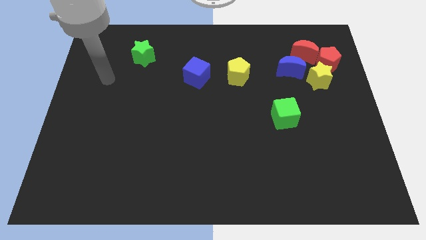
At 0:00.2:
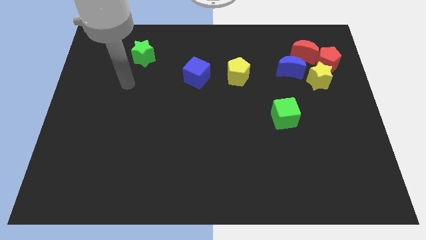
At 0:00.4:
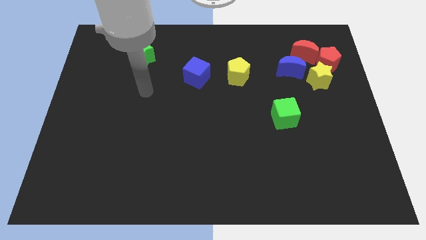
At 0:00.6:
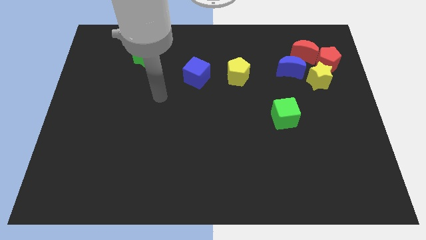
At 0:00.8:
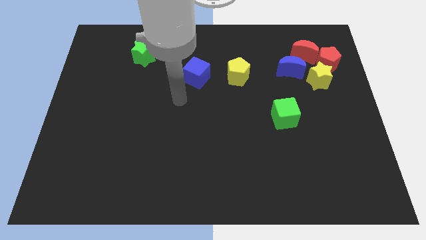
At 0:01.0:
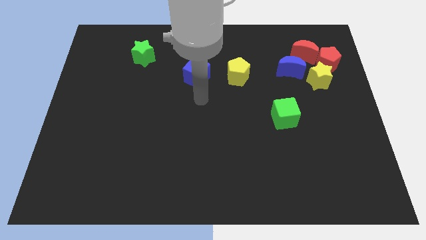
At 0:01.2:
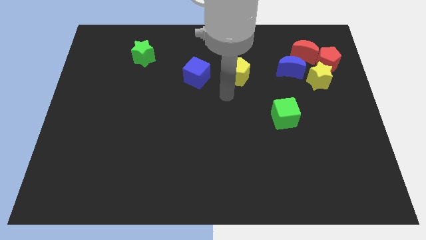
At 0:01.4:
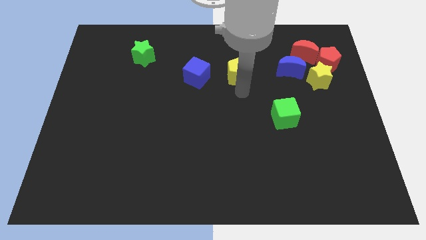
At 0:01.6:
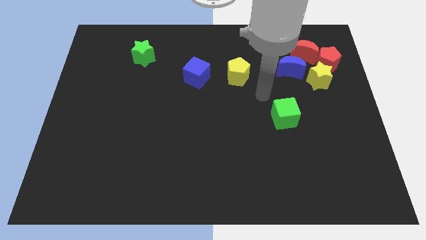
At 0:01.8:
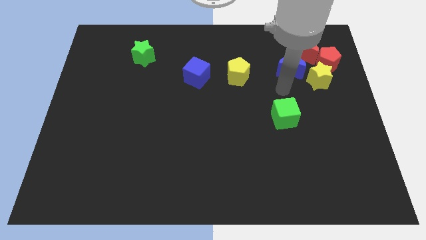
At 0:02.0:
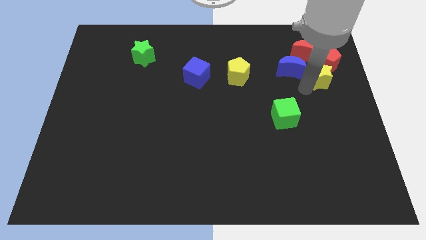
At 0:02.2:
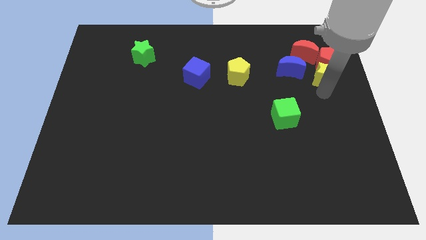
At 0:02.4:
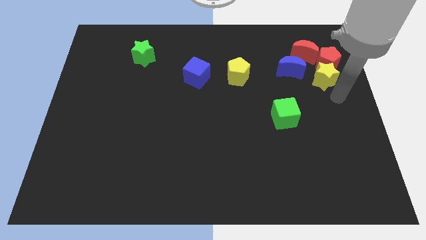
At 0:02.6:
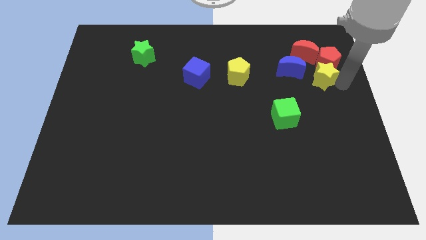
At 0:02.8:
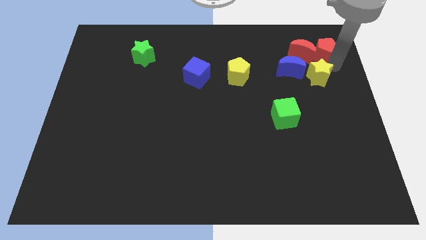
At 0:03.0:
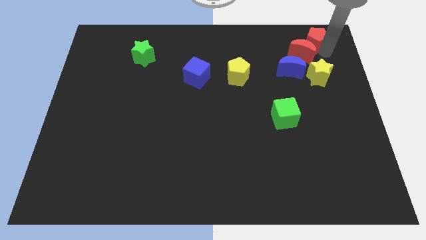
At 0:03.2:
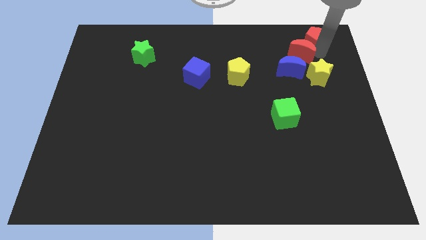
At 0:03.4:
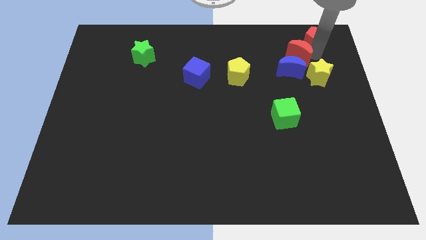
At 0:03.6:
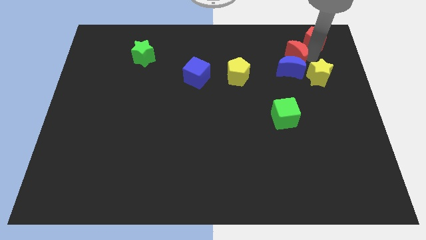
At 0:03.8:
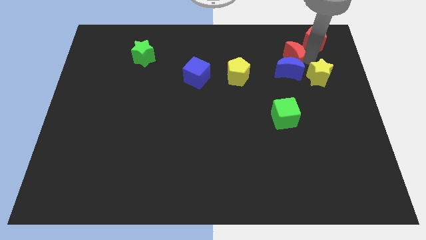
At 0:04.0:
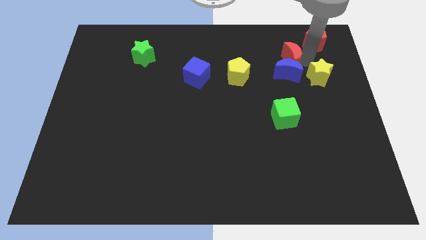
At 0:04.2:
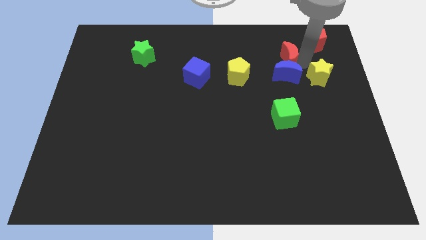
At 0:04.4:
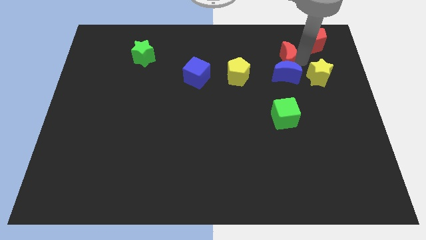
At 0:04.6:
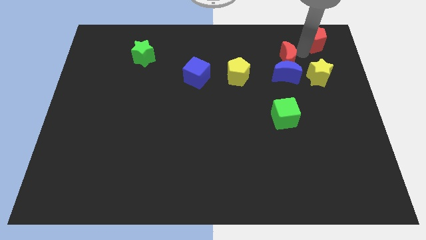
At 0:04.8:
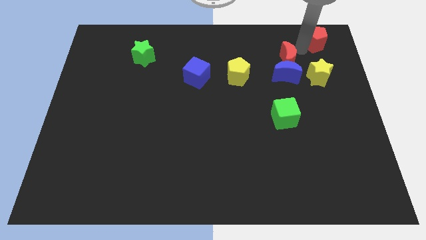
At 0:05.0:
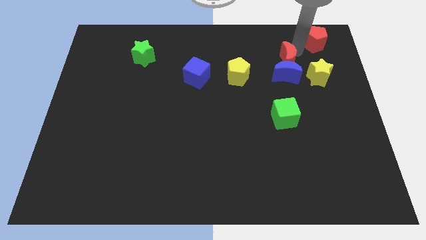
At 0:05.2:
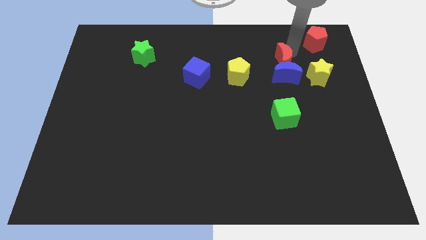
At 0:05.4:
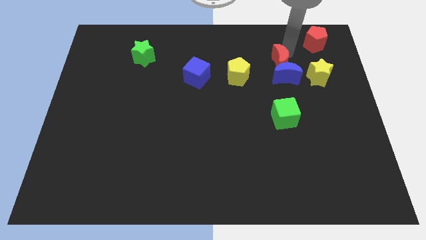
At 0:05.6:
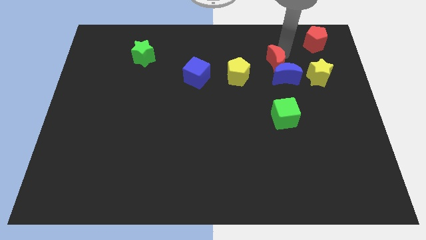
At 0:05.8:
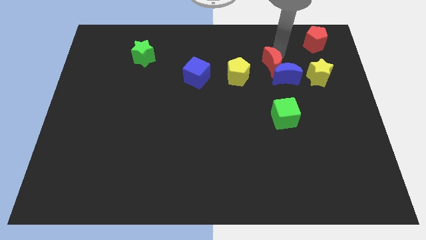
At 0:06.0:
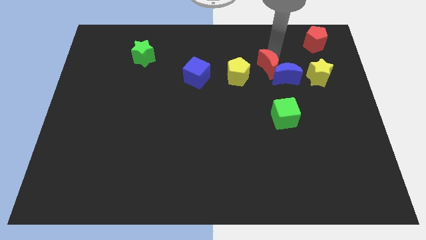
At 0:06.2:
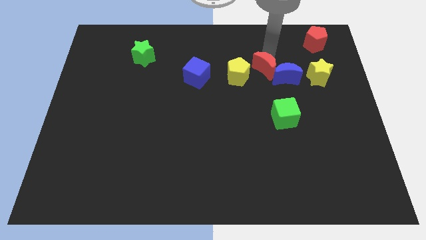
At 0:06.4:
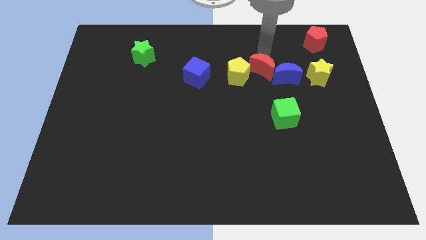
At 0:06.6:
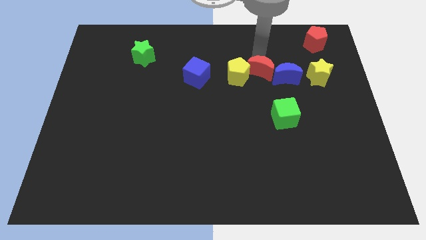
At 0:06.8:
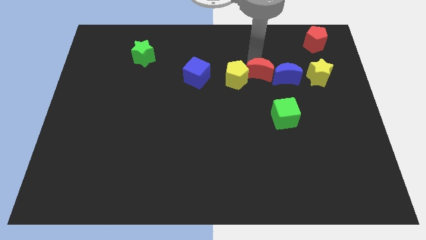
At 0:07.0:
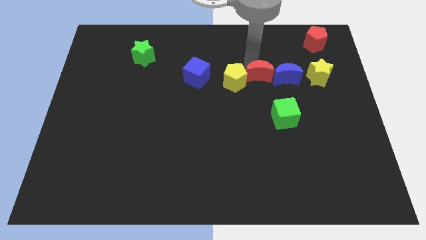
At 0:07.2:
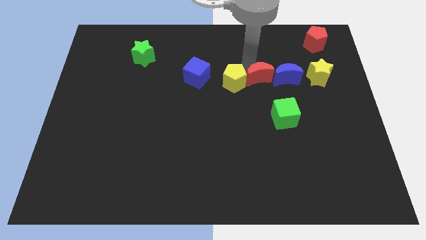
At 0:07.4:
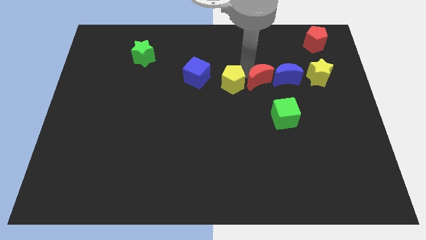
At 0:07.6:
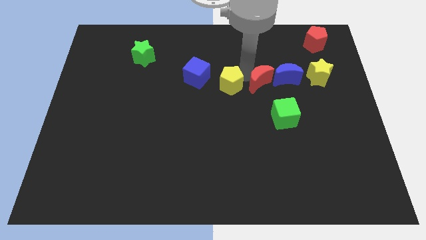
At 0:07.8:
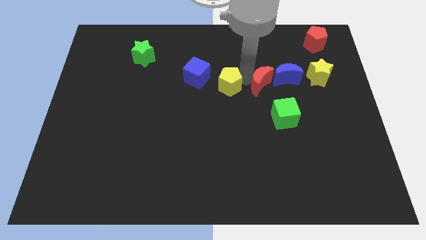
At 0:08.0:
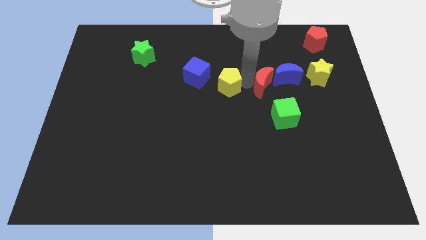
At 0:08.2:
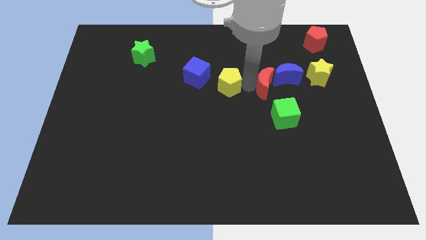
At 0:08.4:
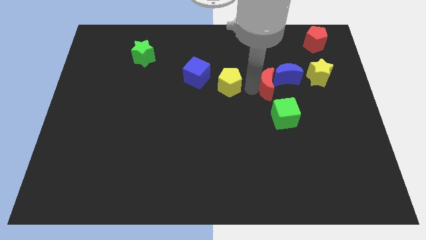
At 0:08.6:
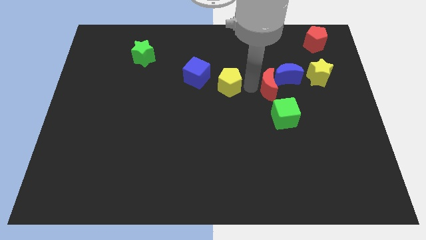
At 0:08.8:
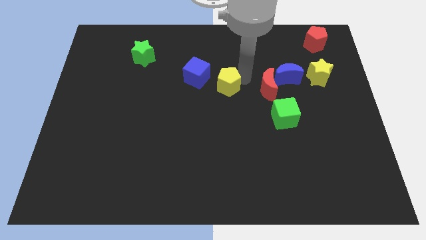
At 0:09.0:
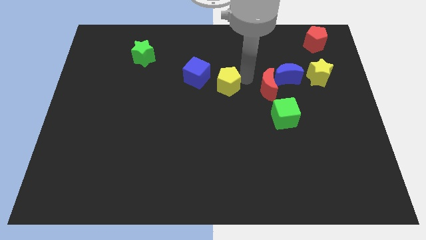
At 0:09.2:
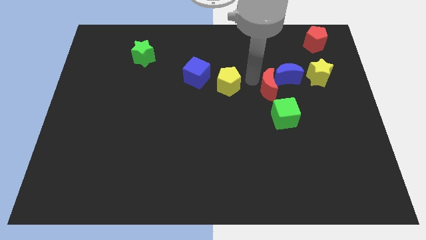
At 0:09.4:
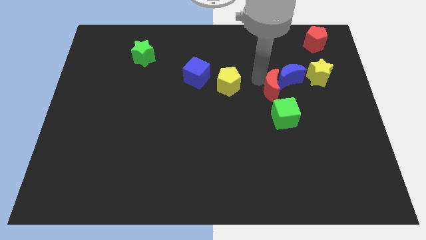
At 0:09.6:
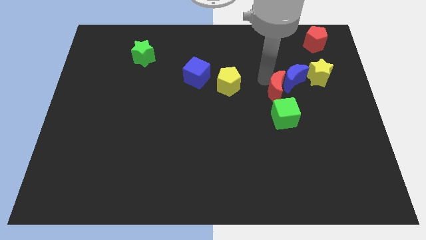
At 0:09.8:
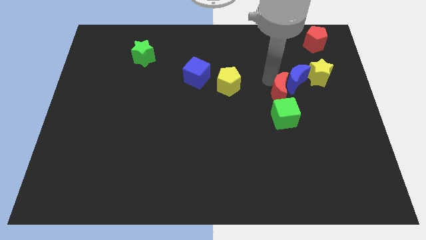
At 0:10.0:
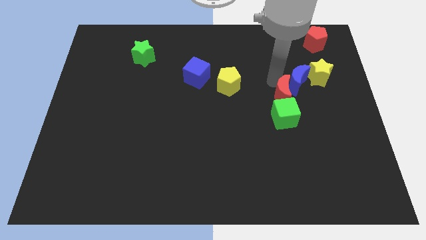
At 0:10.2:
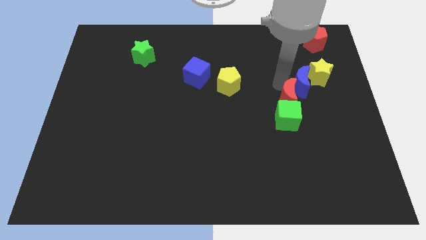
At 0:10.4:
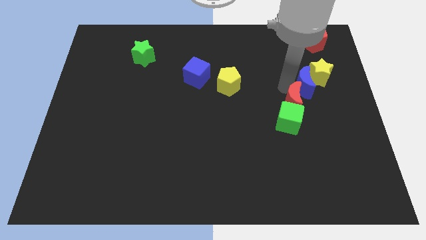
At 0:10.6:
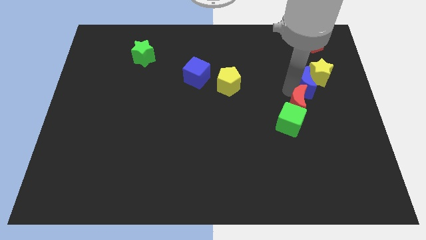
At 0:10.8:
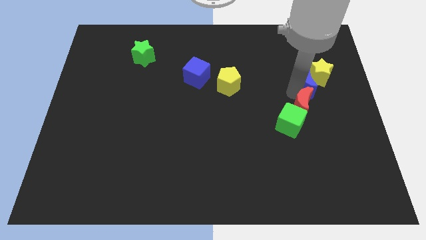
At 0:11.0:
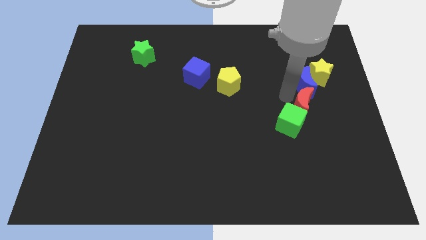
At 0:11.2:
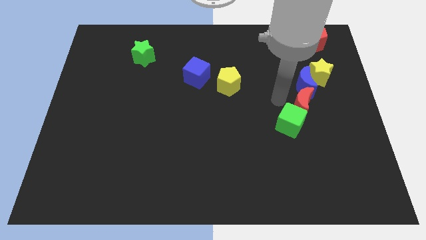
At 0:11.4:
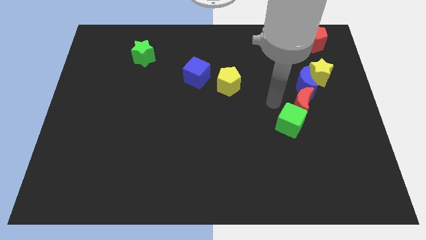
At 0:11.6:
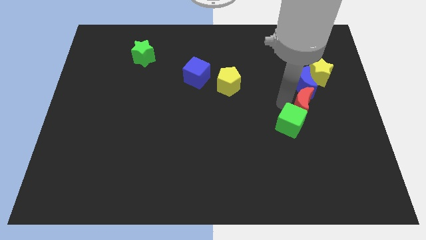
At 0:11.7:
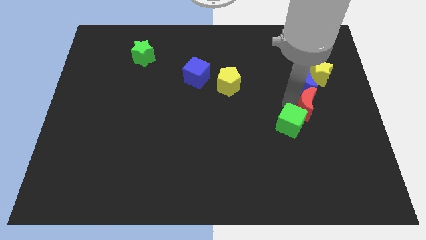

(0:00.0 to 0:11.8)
put the red moon right of the green cube

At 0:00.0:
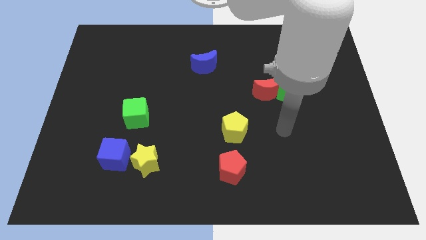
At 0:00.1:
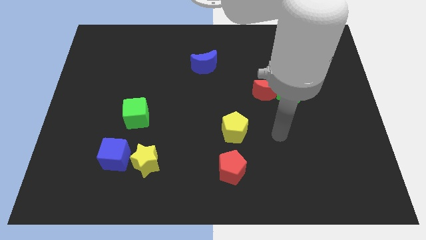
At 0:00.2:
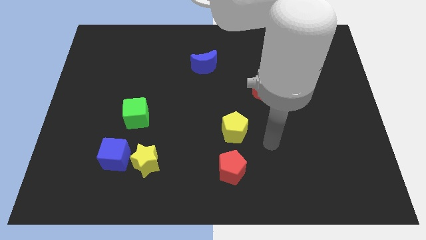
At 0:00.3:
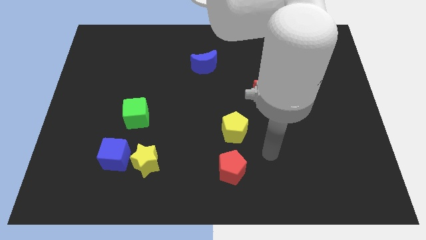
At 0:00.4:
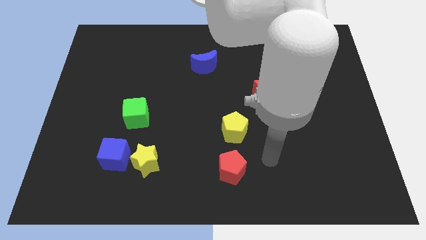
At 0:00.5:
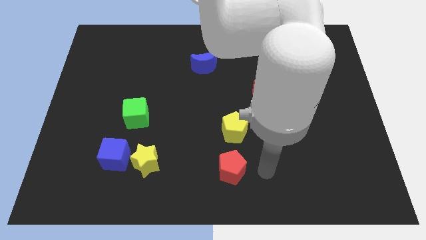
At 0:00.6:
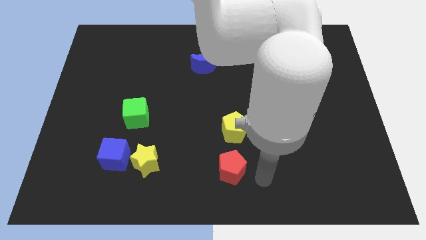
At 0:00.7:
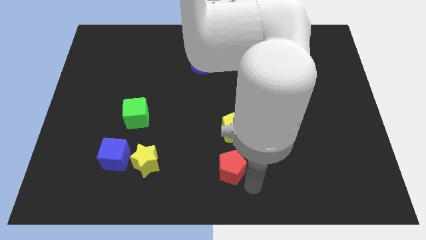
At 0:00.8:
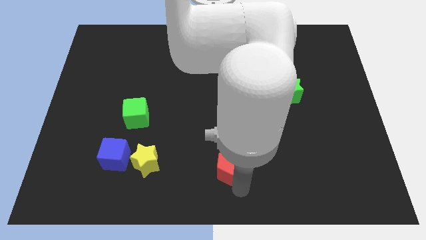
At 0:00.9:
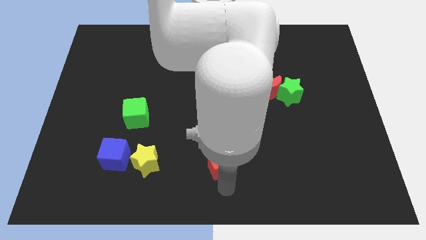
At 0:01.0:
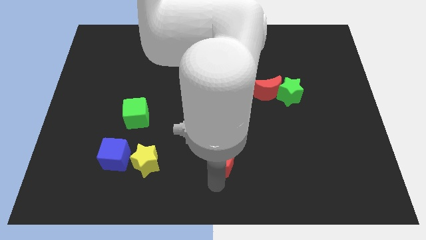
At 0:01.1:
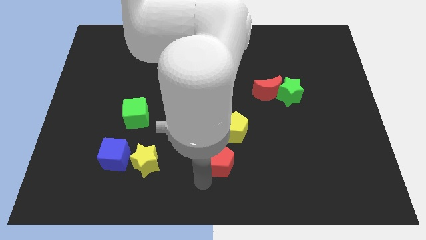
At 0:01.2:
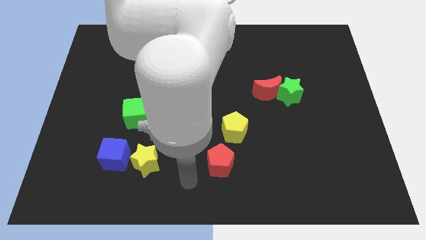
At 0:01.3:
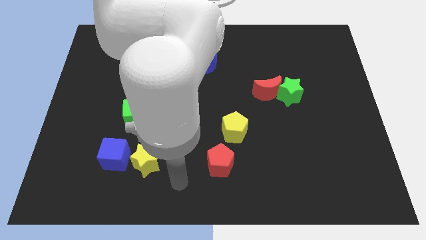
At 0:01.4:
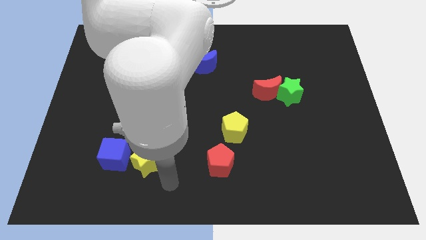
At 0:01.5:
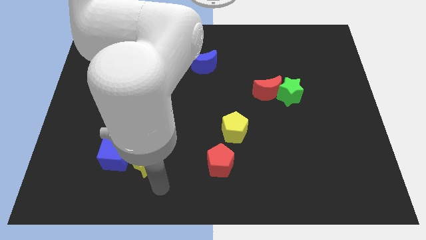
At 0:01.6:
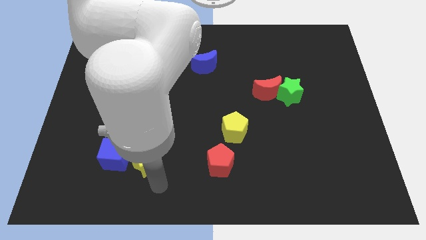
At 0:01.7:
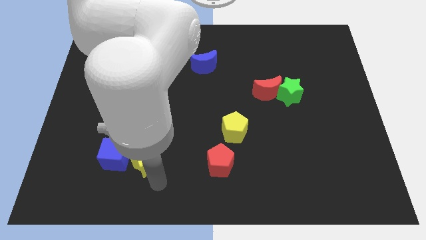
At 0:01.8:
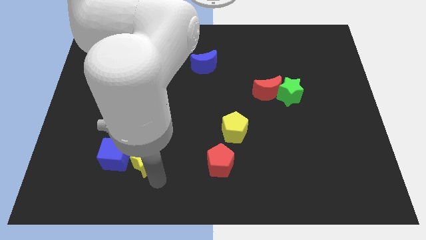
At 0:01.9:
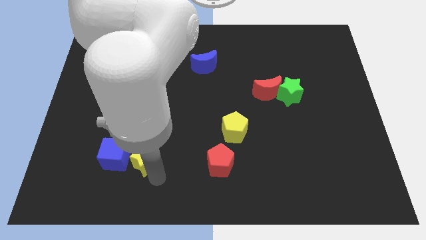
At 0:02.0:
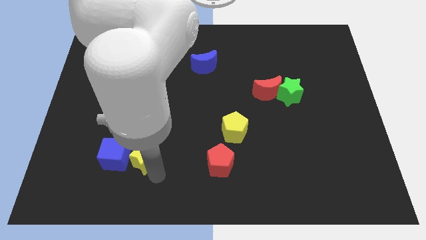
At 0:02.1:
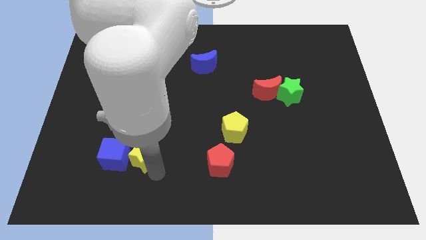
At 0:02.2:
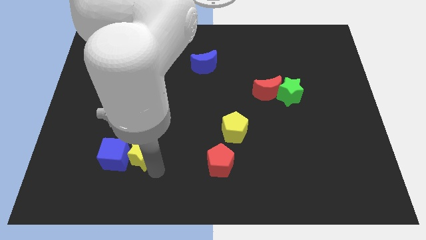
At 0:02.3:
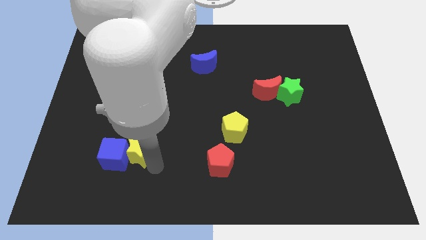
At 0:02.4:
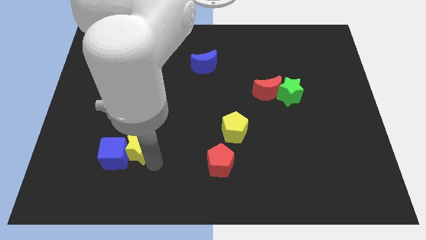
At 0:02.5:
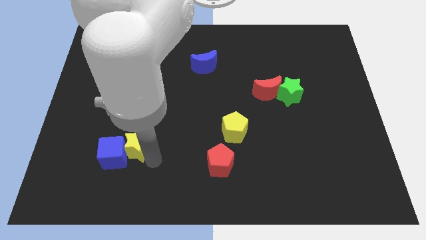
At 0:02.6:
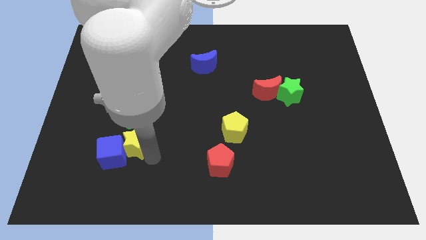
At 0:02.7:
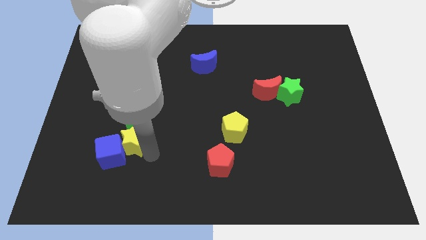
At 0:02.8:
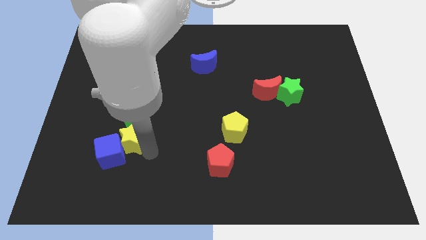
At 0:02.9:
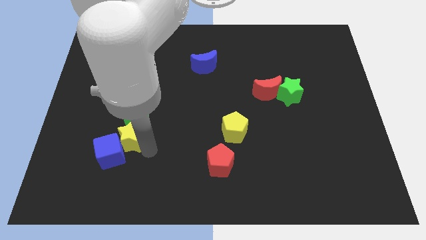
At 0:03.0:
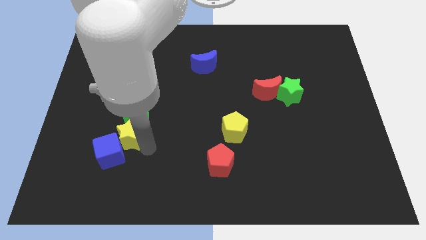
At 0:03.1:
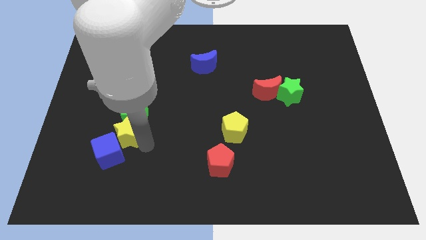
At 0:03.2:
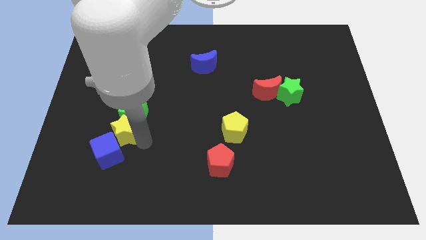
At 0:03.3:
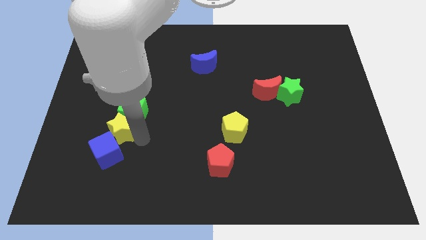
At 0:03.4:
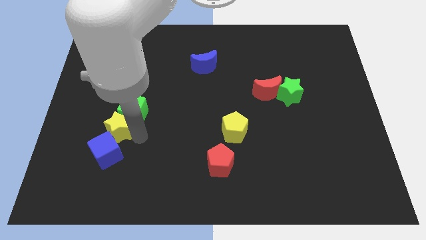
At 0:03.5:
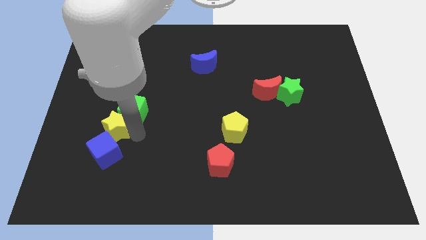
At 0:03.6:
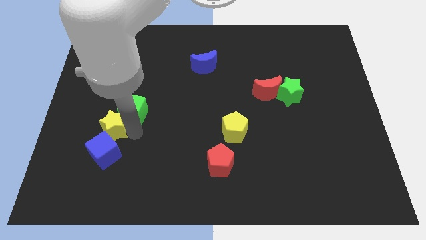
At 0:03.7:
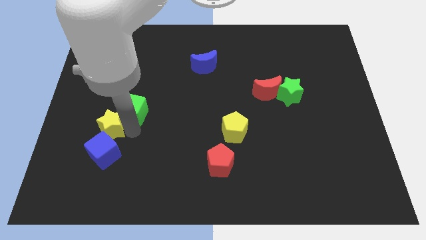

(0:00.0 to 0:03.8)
move the yellow star diagonally up and to the left of the blue cube
